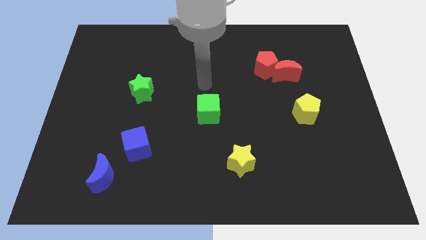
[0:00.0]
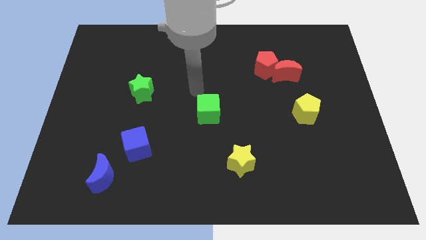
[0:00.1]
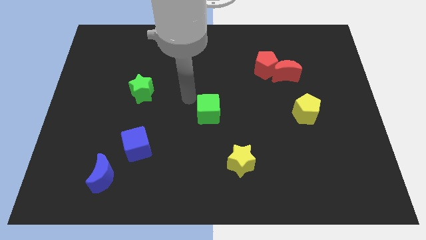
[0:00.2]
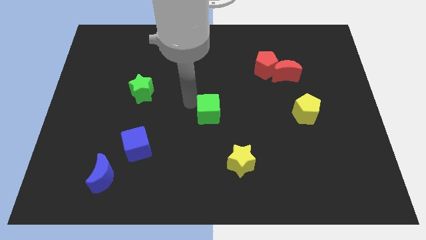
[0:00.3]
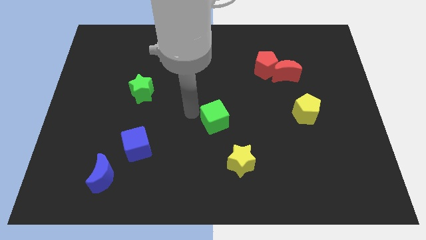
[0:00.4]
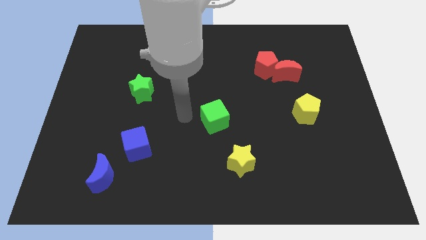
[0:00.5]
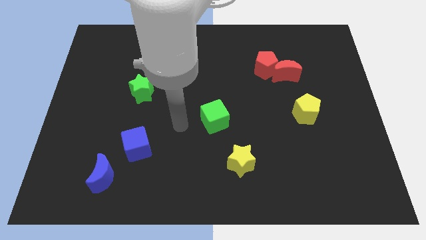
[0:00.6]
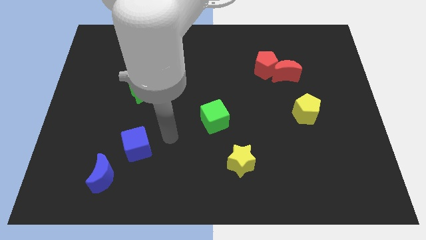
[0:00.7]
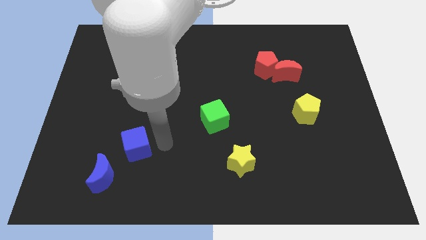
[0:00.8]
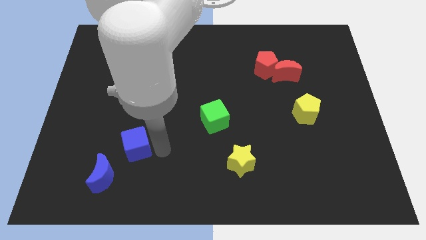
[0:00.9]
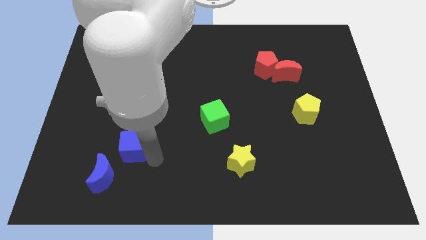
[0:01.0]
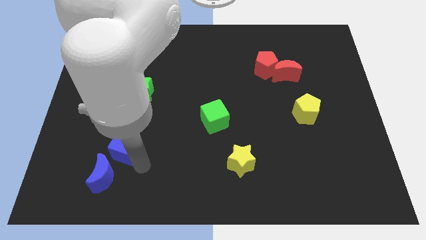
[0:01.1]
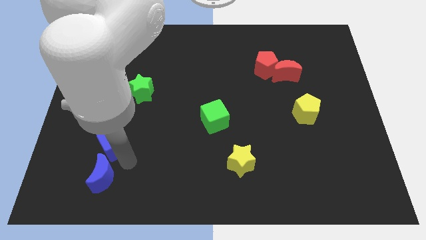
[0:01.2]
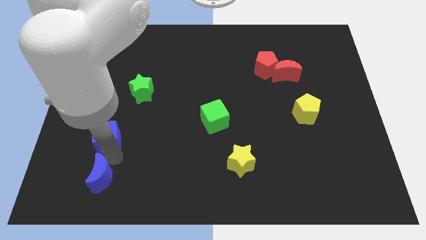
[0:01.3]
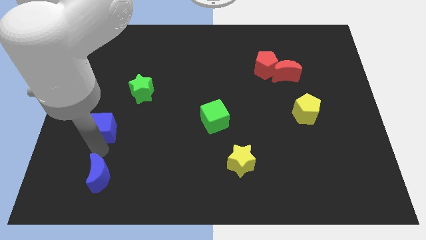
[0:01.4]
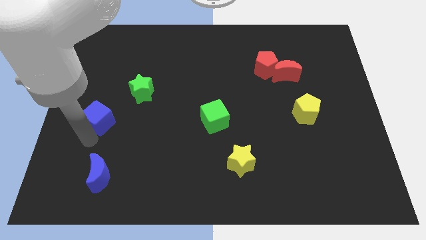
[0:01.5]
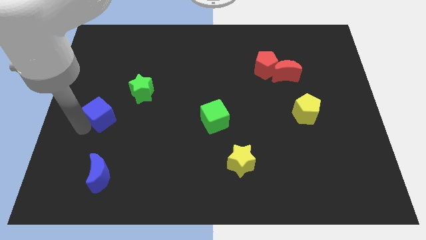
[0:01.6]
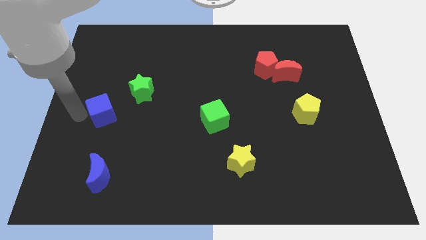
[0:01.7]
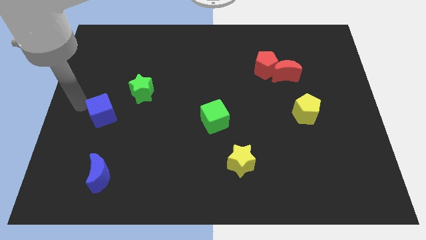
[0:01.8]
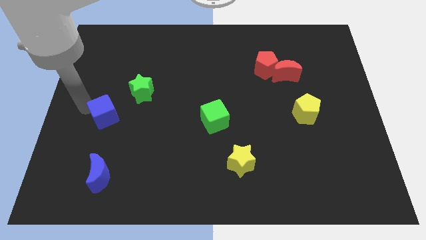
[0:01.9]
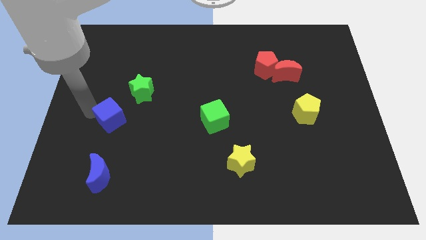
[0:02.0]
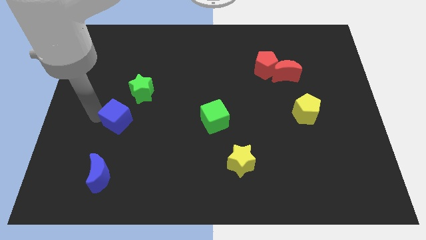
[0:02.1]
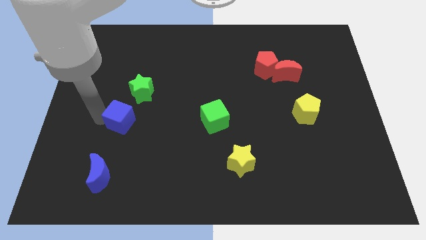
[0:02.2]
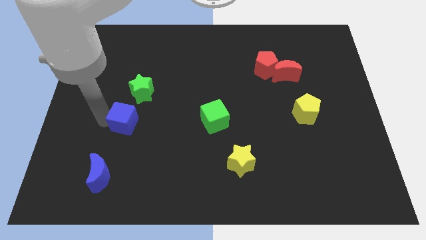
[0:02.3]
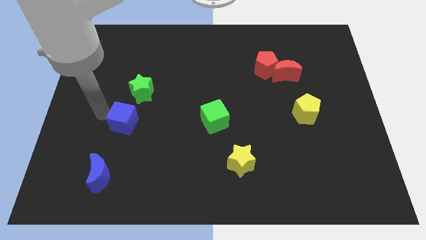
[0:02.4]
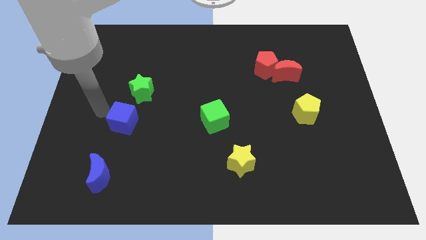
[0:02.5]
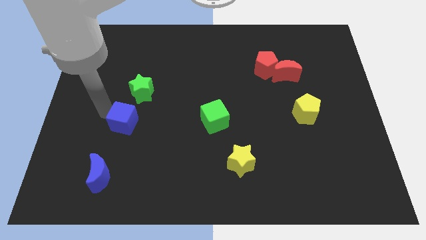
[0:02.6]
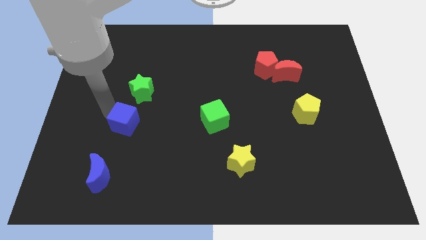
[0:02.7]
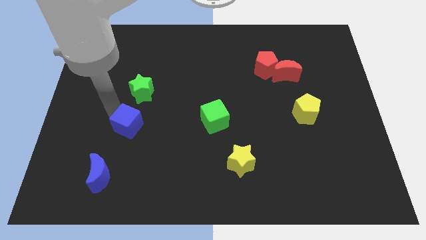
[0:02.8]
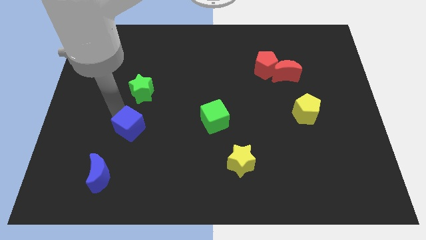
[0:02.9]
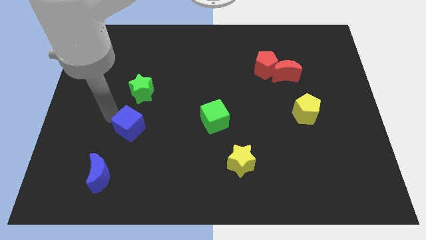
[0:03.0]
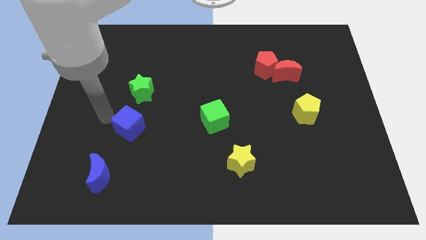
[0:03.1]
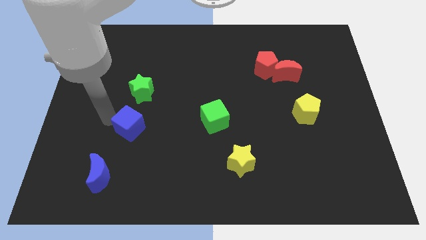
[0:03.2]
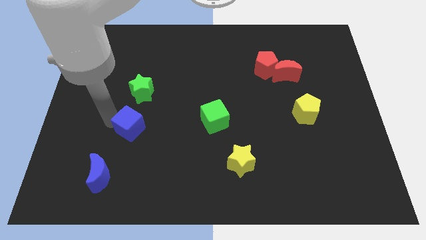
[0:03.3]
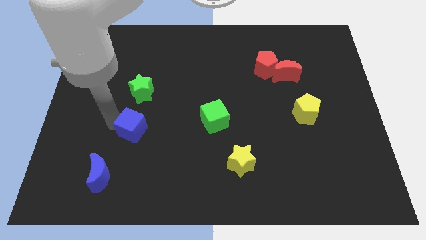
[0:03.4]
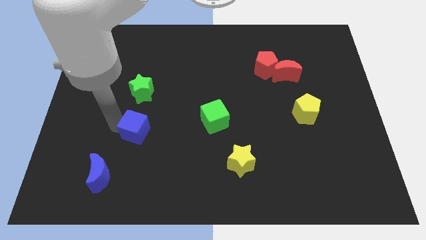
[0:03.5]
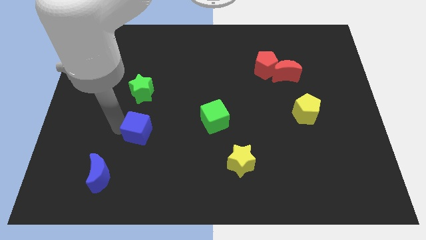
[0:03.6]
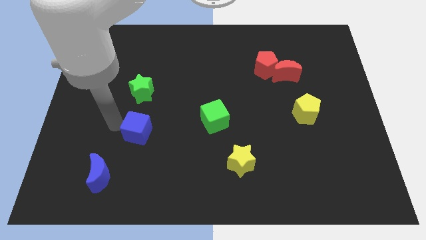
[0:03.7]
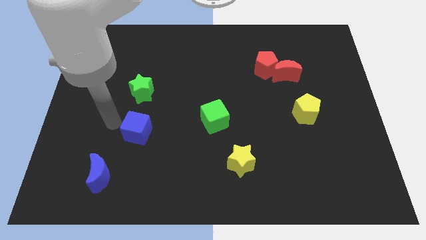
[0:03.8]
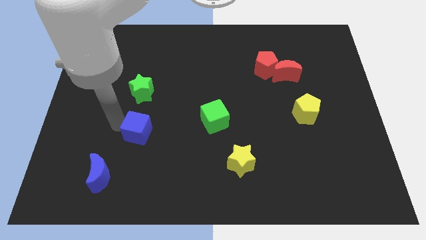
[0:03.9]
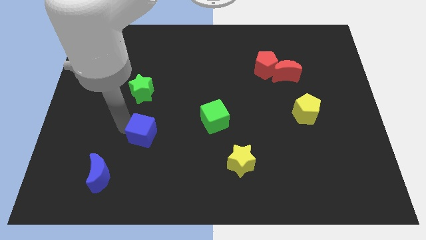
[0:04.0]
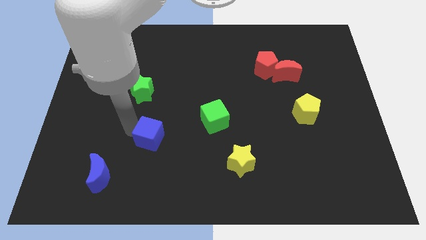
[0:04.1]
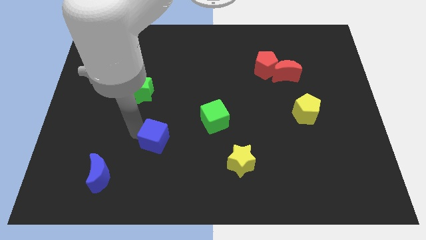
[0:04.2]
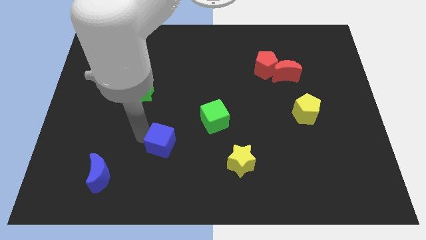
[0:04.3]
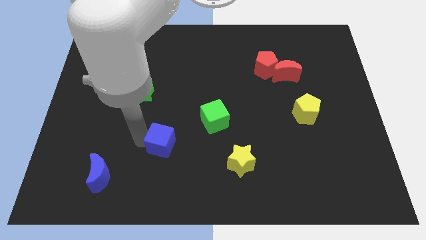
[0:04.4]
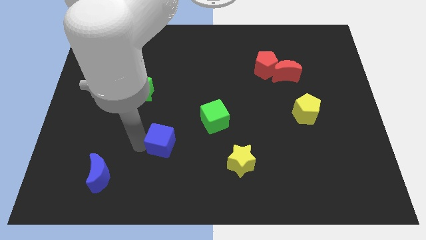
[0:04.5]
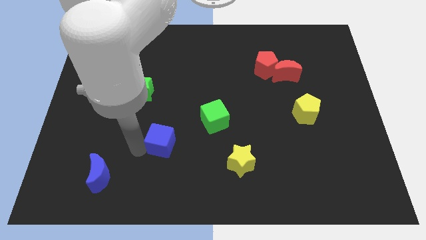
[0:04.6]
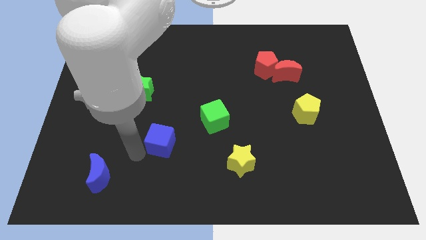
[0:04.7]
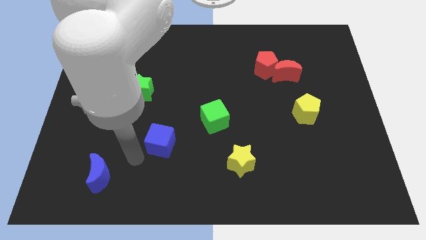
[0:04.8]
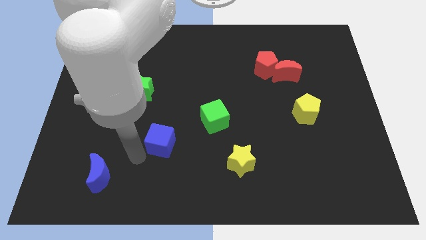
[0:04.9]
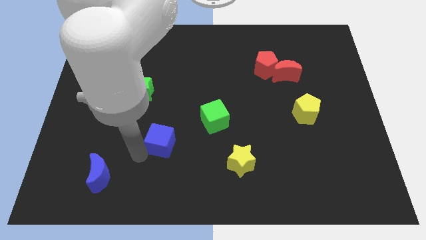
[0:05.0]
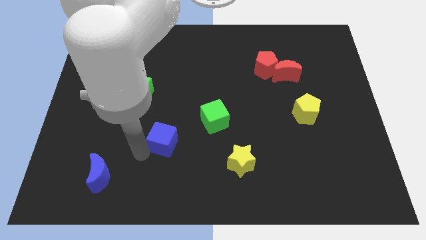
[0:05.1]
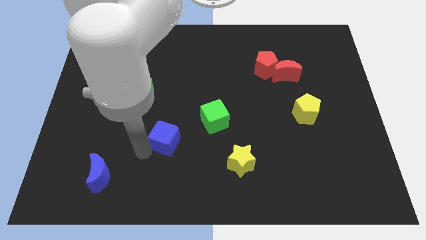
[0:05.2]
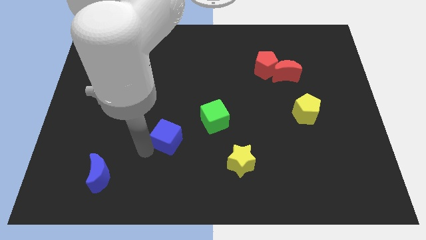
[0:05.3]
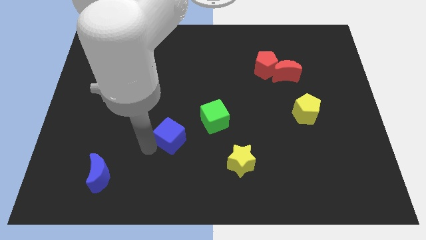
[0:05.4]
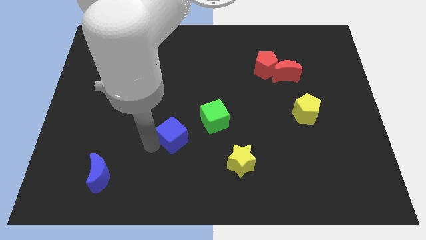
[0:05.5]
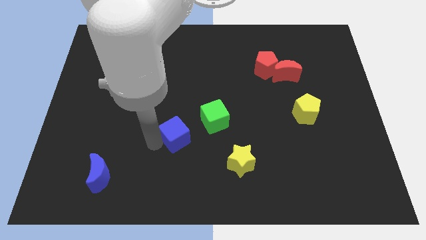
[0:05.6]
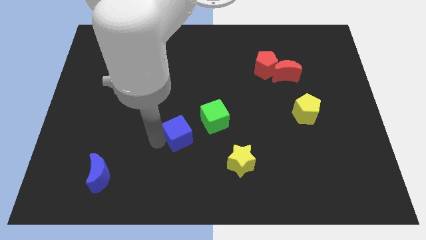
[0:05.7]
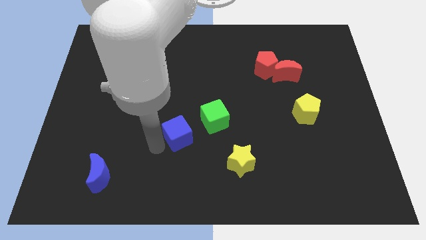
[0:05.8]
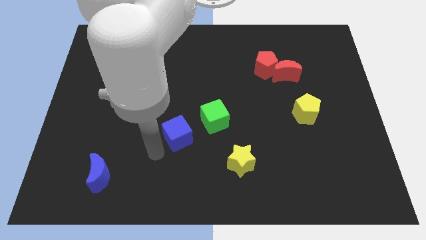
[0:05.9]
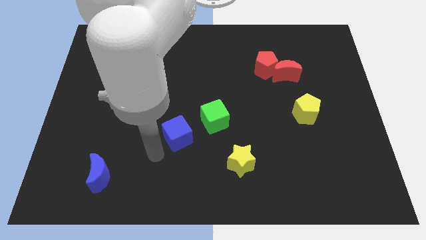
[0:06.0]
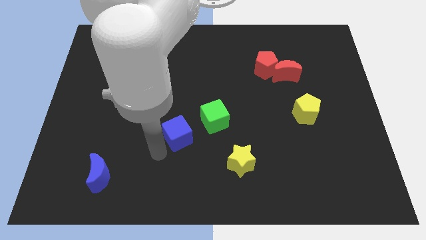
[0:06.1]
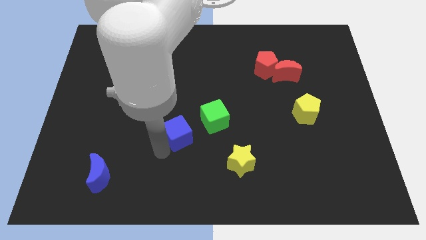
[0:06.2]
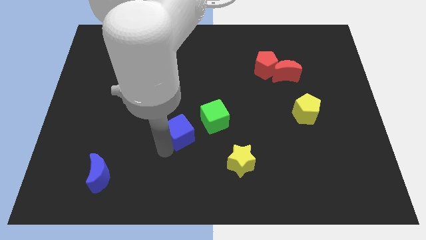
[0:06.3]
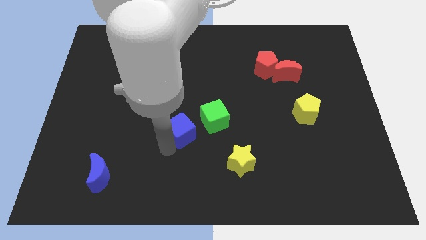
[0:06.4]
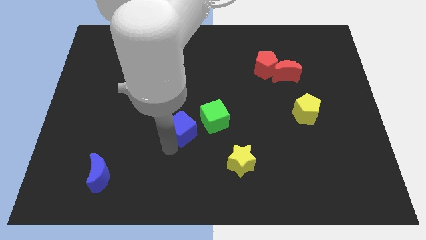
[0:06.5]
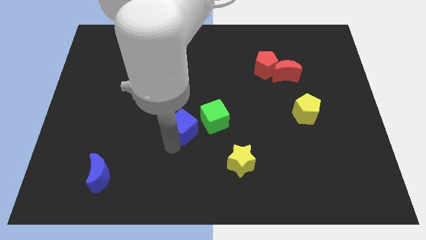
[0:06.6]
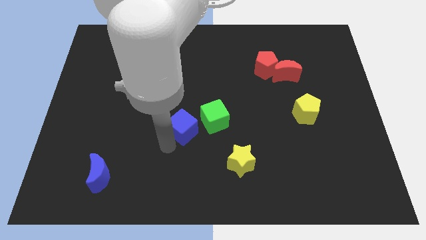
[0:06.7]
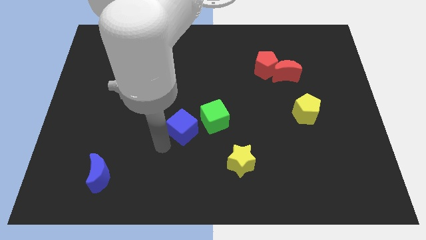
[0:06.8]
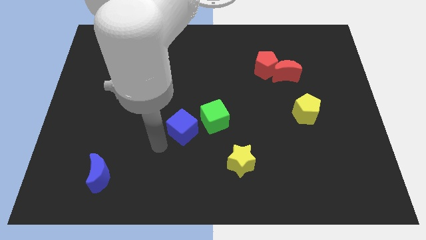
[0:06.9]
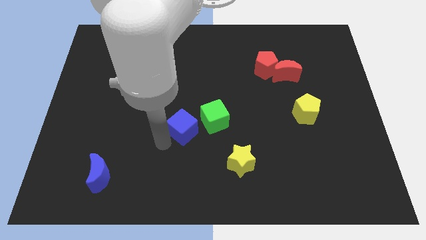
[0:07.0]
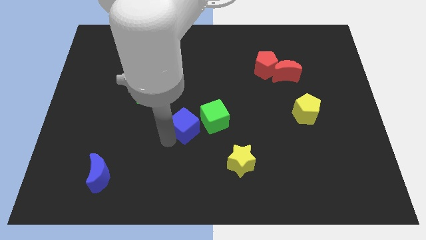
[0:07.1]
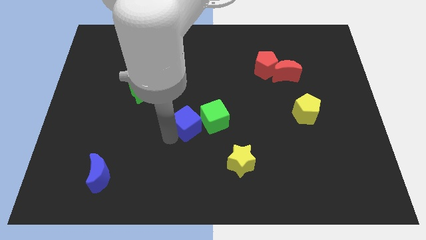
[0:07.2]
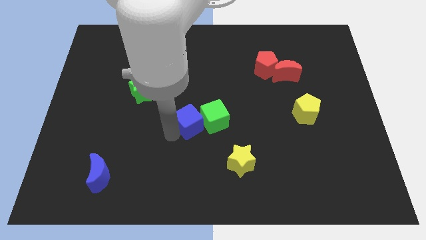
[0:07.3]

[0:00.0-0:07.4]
push the blue cube towards the green cube

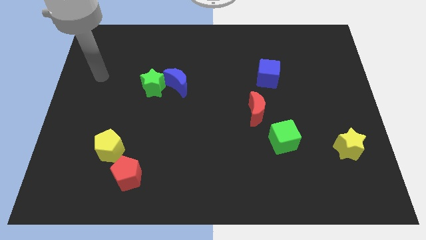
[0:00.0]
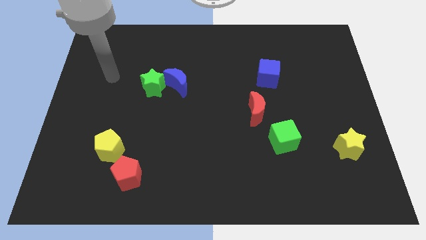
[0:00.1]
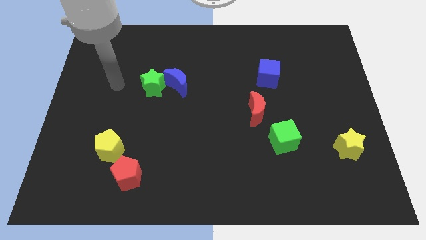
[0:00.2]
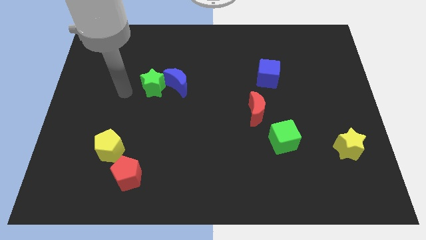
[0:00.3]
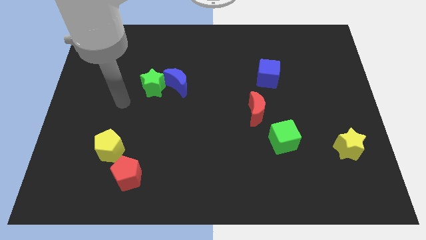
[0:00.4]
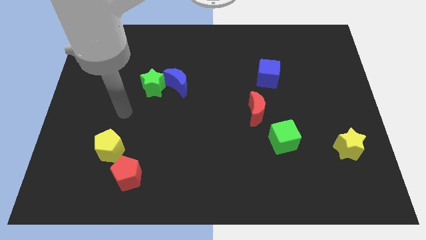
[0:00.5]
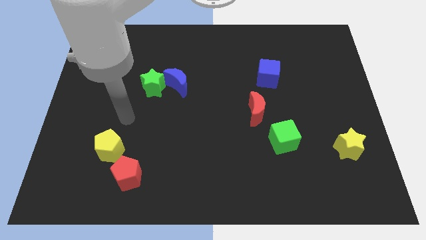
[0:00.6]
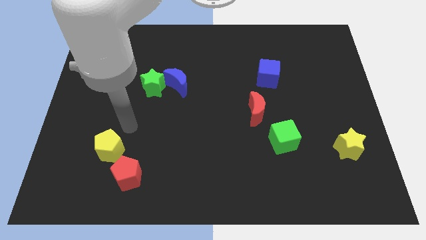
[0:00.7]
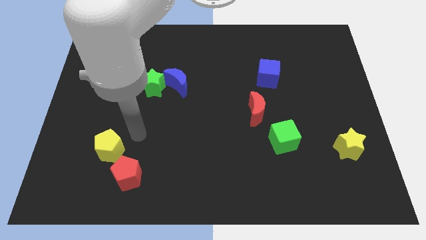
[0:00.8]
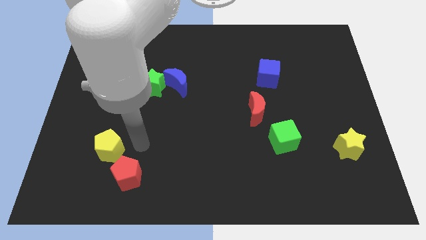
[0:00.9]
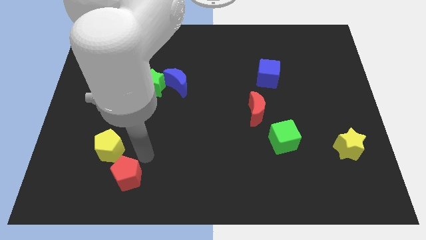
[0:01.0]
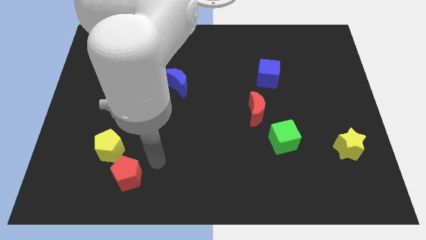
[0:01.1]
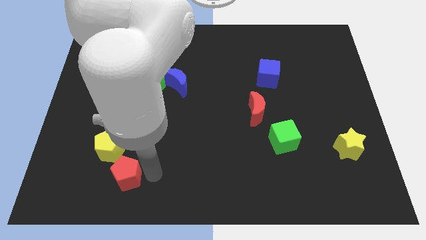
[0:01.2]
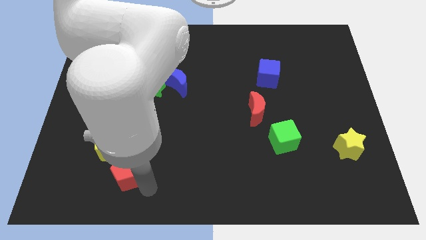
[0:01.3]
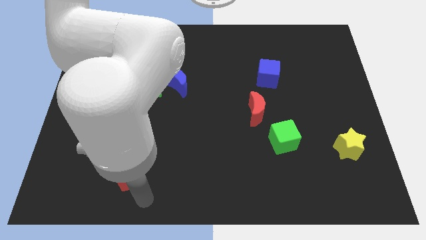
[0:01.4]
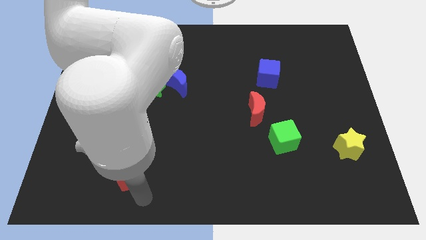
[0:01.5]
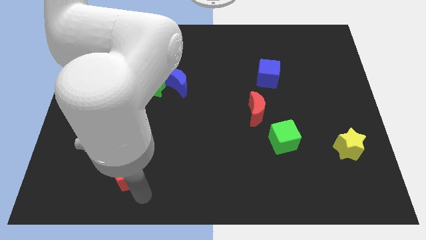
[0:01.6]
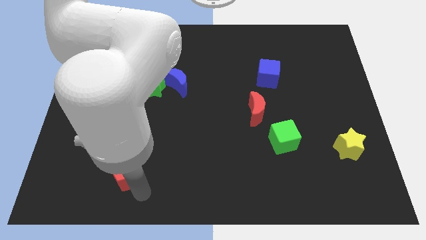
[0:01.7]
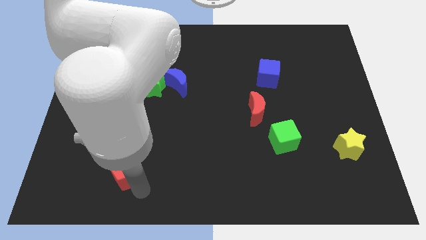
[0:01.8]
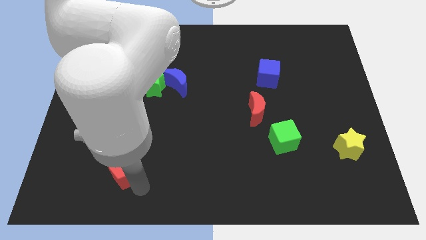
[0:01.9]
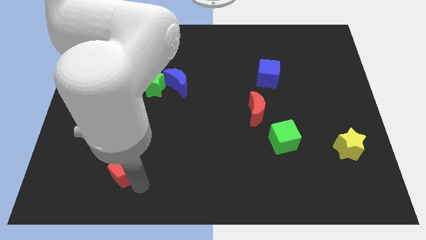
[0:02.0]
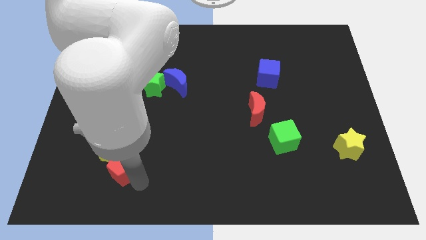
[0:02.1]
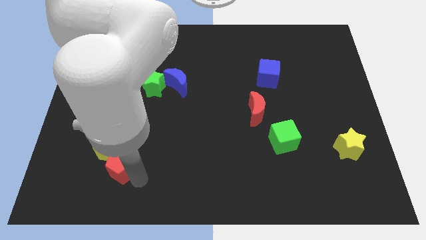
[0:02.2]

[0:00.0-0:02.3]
push the red pentagon to the yellow pentagon
